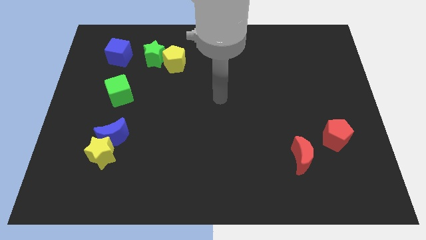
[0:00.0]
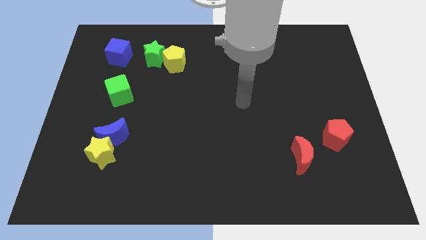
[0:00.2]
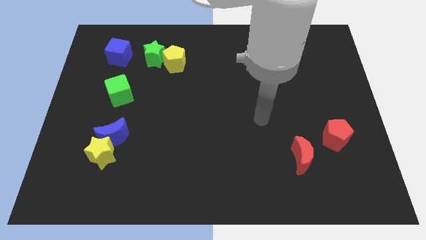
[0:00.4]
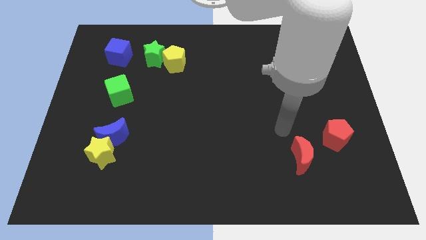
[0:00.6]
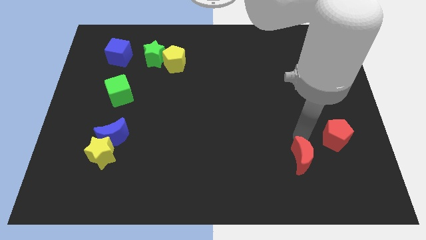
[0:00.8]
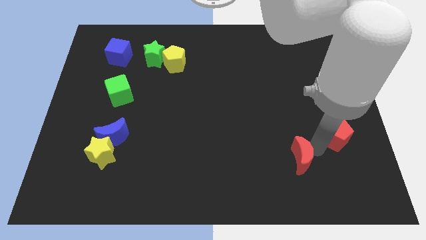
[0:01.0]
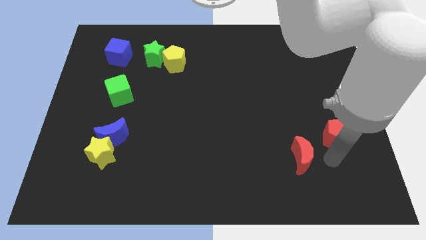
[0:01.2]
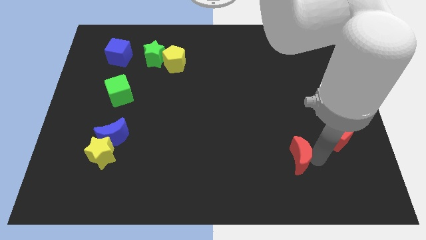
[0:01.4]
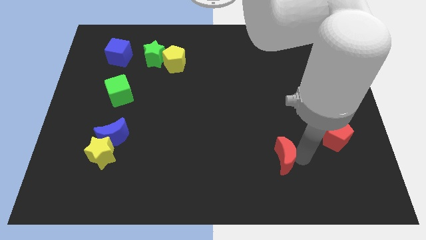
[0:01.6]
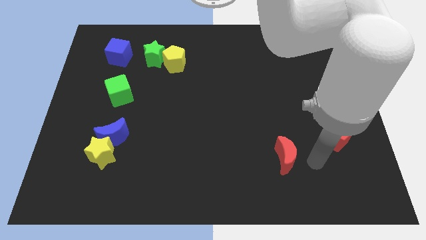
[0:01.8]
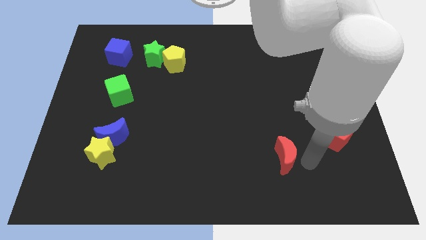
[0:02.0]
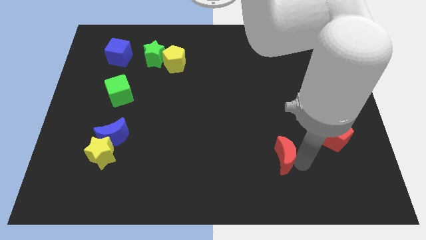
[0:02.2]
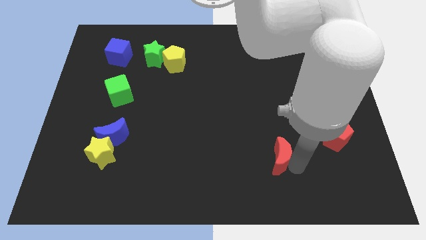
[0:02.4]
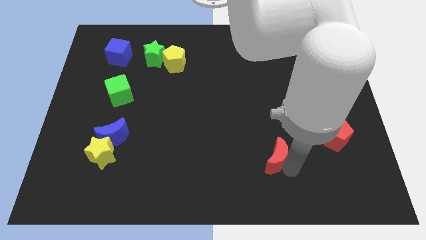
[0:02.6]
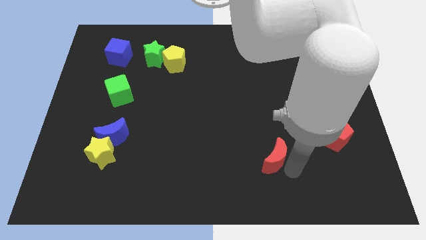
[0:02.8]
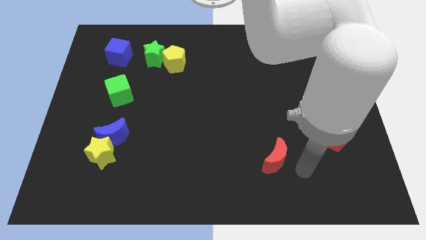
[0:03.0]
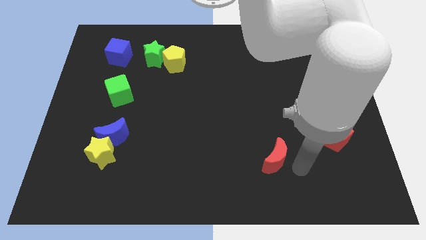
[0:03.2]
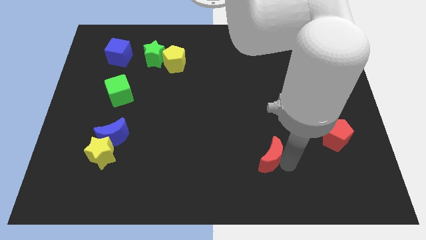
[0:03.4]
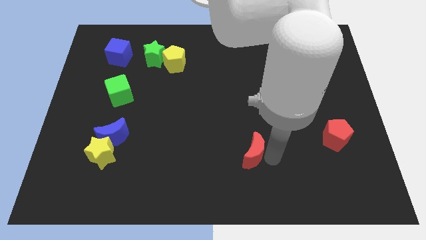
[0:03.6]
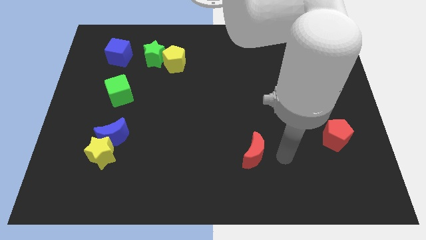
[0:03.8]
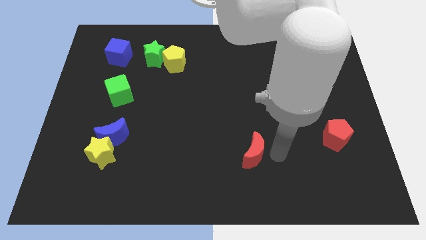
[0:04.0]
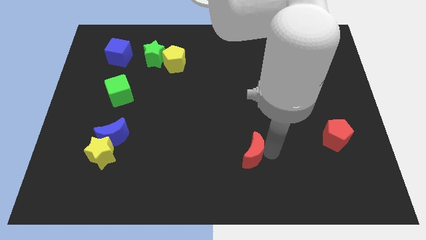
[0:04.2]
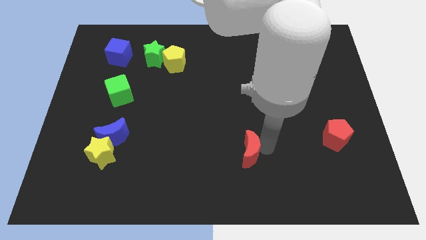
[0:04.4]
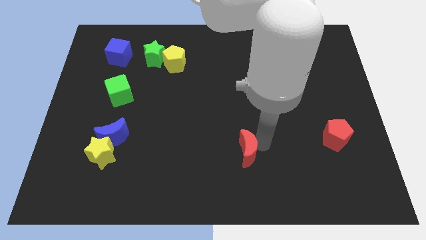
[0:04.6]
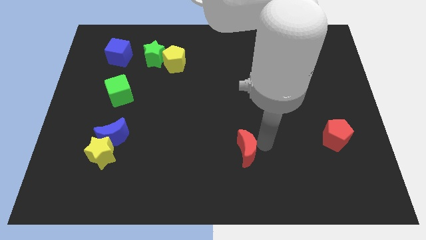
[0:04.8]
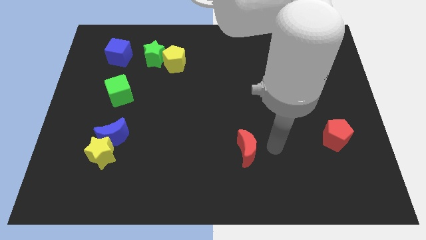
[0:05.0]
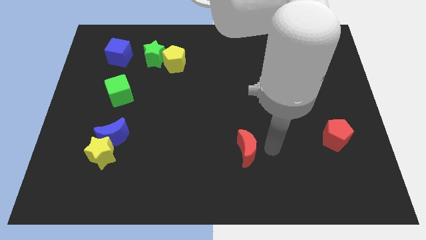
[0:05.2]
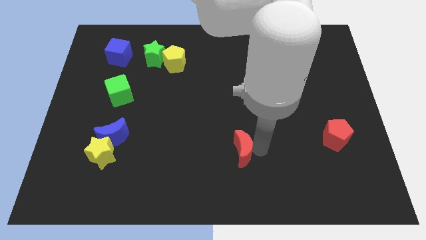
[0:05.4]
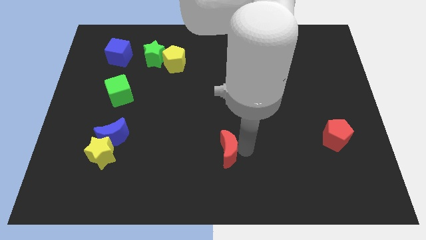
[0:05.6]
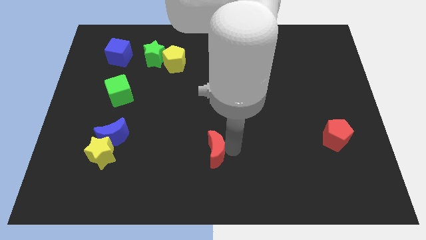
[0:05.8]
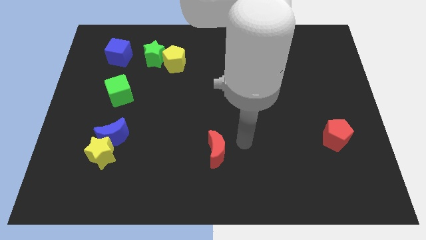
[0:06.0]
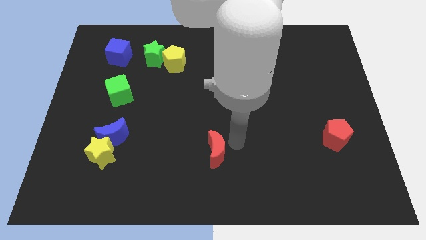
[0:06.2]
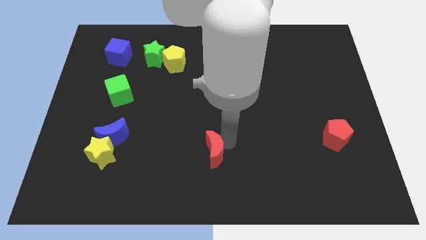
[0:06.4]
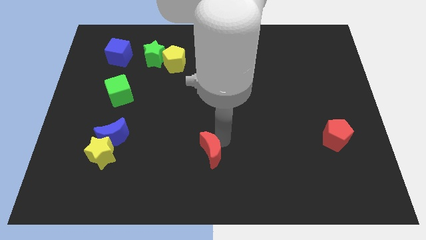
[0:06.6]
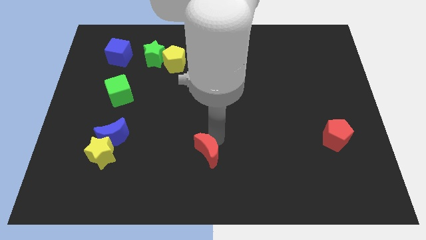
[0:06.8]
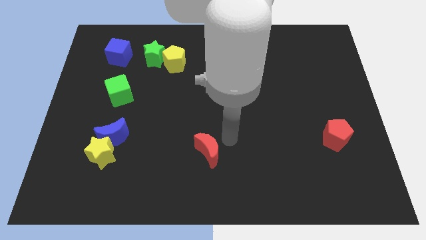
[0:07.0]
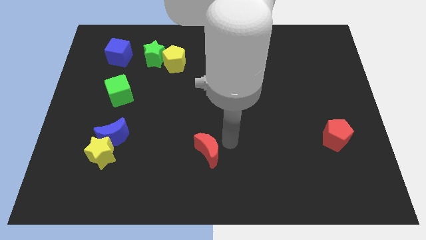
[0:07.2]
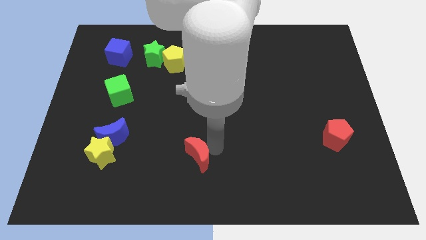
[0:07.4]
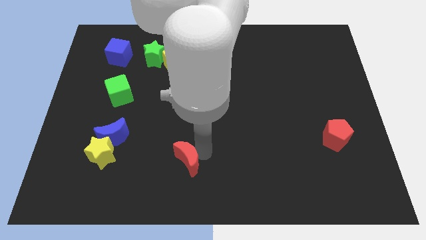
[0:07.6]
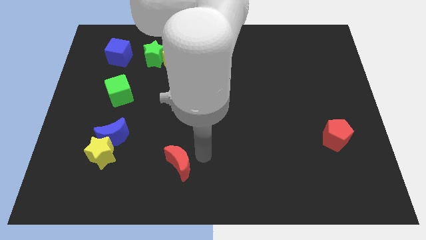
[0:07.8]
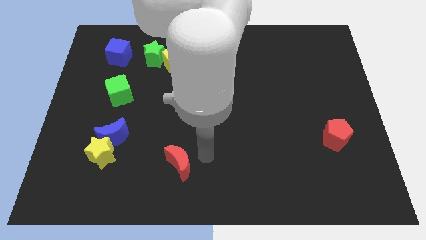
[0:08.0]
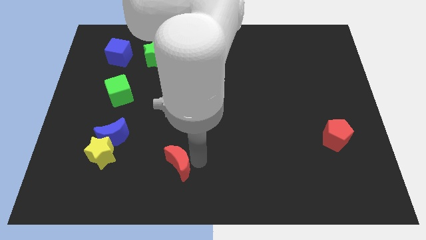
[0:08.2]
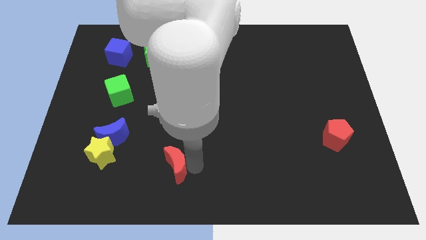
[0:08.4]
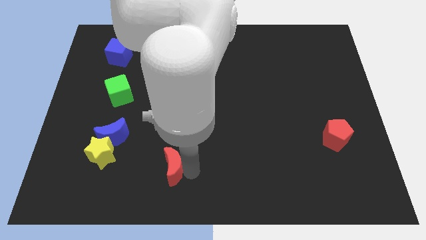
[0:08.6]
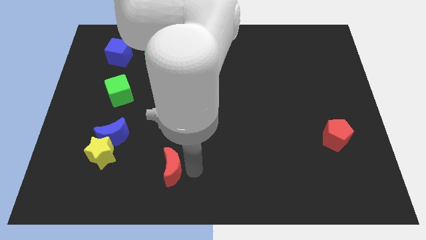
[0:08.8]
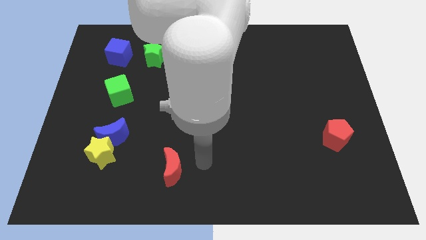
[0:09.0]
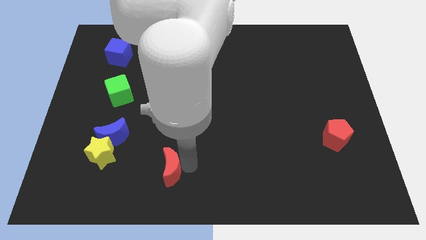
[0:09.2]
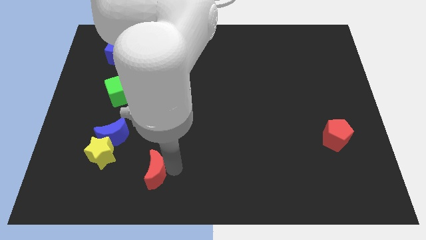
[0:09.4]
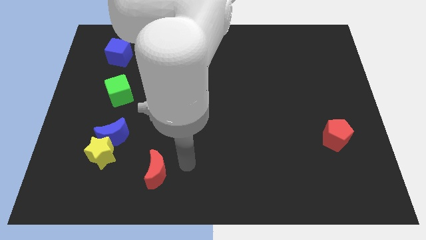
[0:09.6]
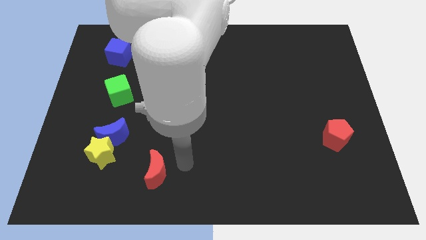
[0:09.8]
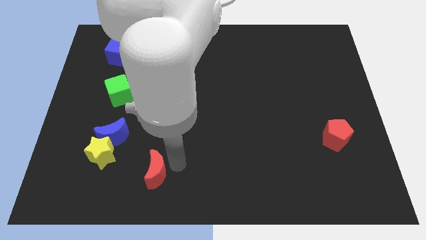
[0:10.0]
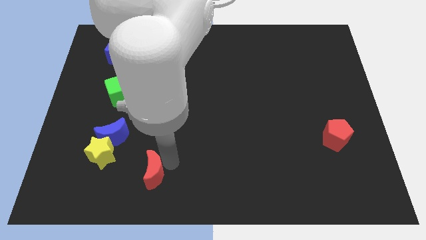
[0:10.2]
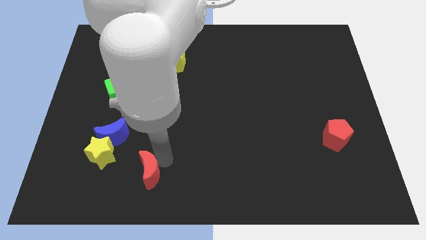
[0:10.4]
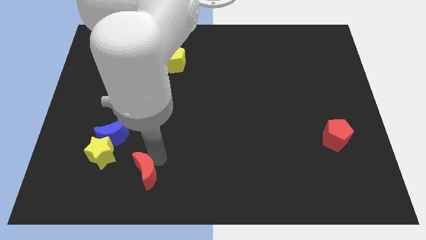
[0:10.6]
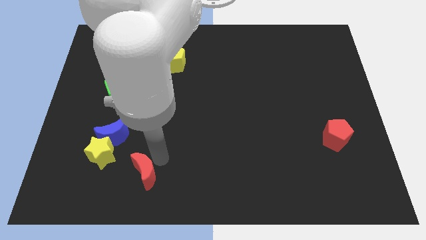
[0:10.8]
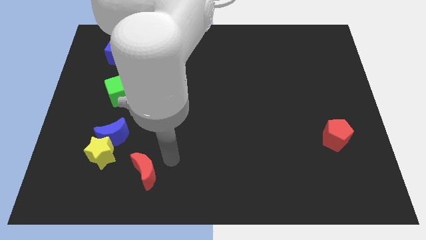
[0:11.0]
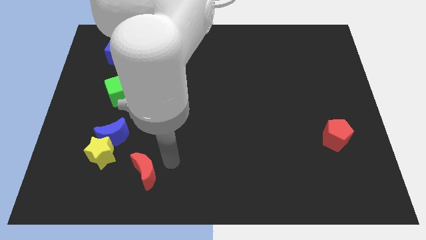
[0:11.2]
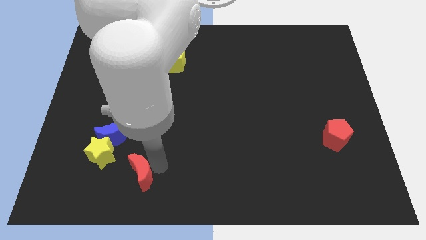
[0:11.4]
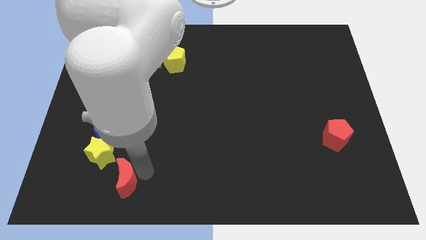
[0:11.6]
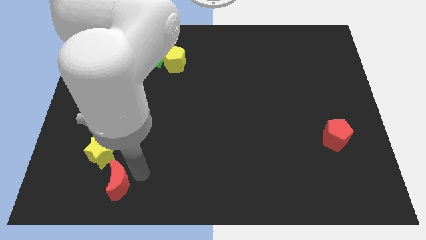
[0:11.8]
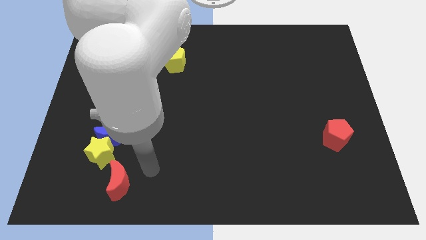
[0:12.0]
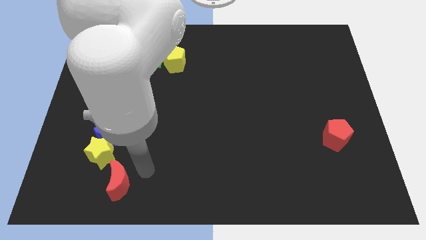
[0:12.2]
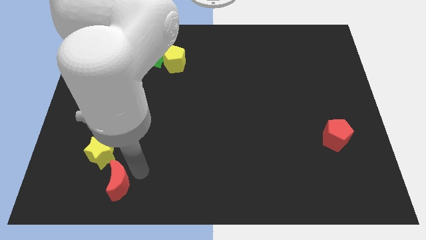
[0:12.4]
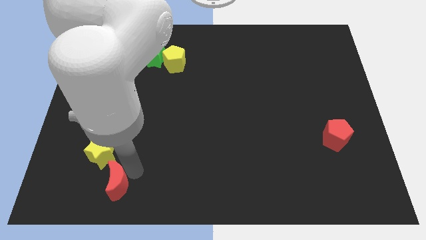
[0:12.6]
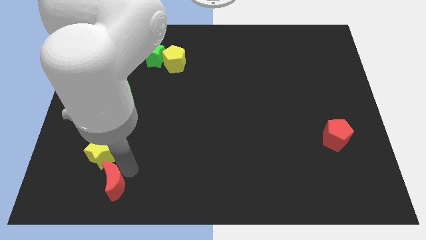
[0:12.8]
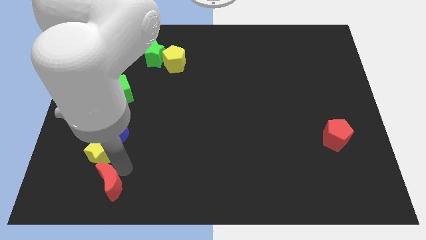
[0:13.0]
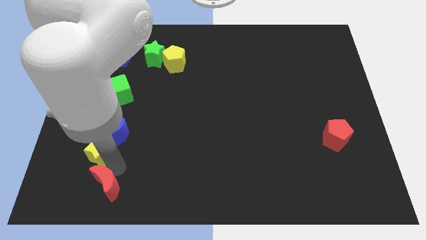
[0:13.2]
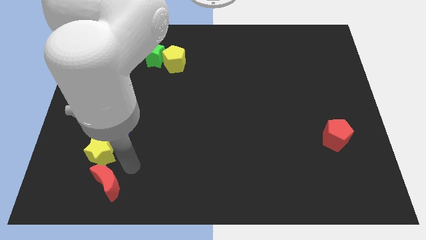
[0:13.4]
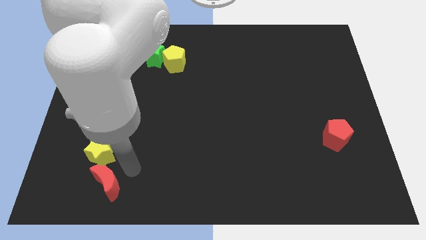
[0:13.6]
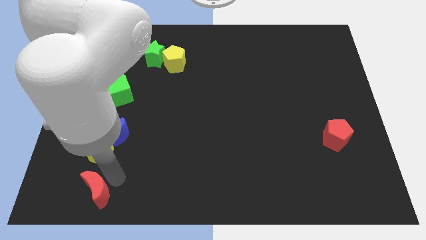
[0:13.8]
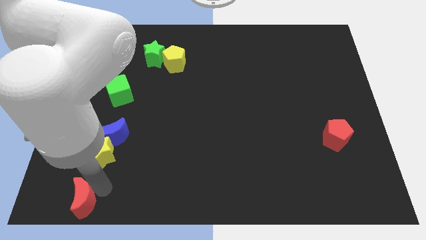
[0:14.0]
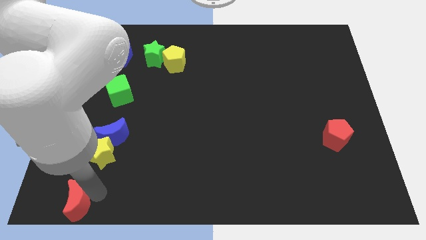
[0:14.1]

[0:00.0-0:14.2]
put the red moon to the bottom left
